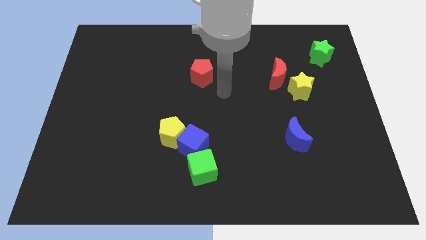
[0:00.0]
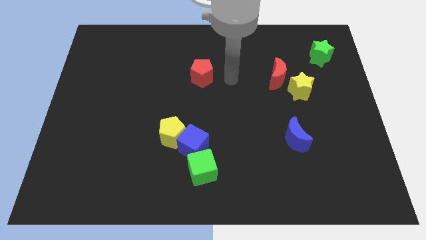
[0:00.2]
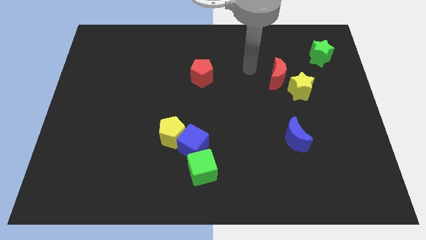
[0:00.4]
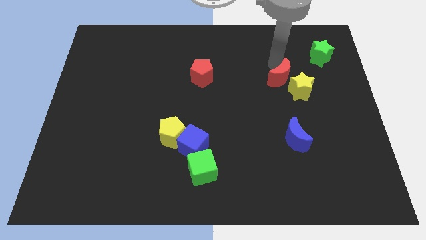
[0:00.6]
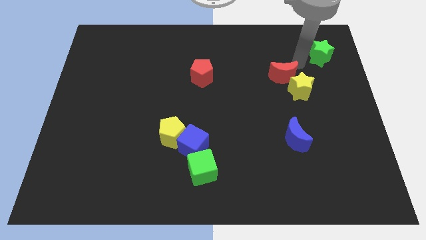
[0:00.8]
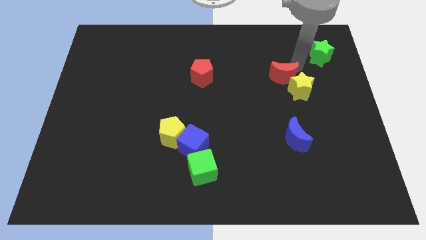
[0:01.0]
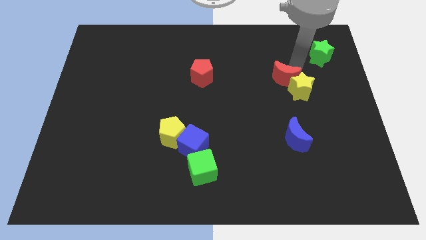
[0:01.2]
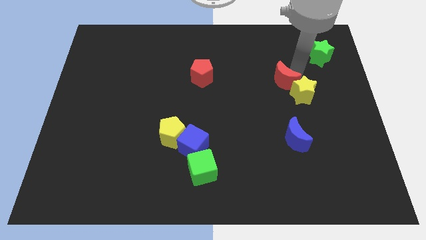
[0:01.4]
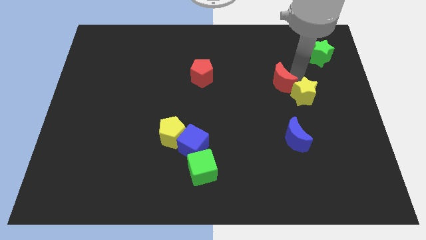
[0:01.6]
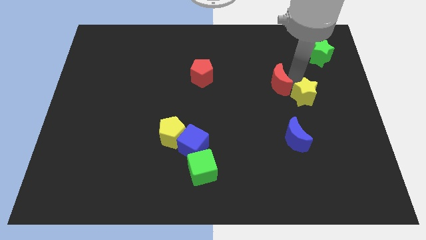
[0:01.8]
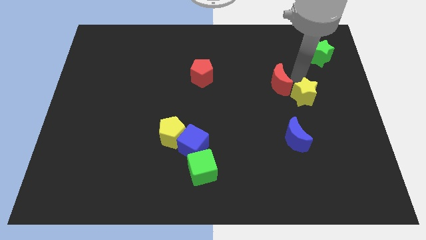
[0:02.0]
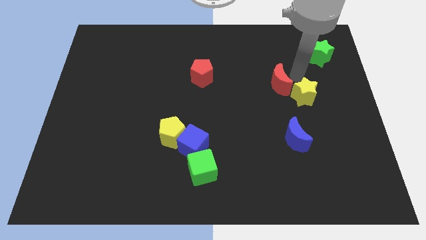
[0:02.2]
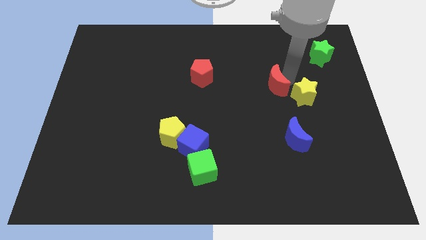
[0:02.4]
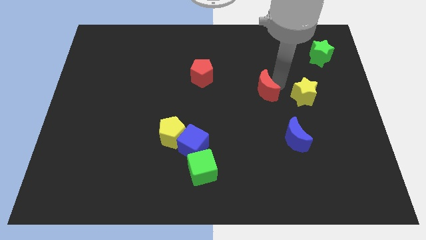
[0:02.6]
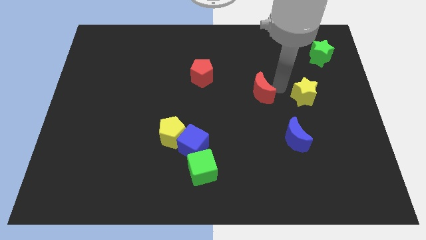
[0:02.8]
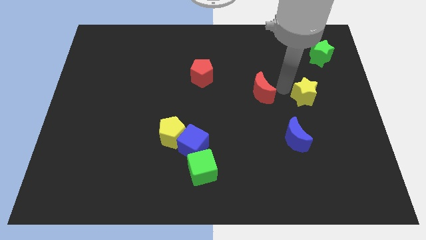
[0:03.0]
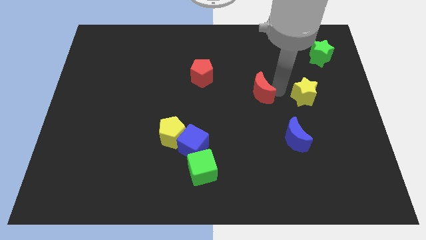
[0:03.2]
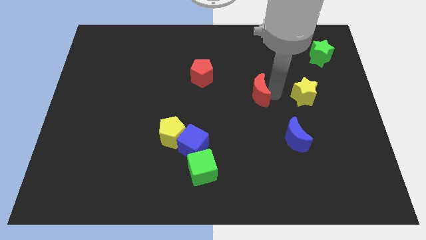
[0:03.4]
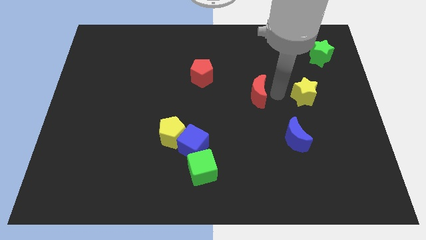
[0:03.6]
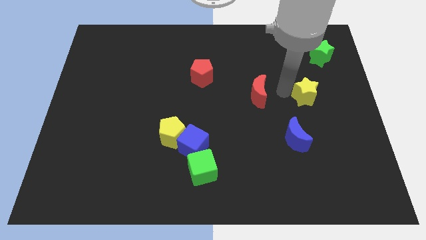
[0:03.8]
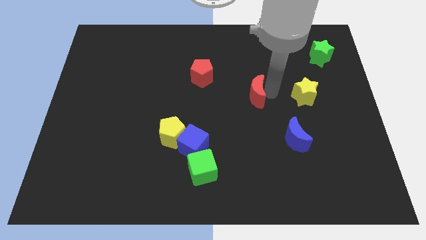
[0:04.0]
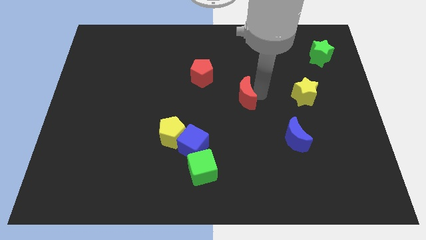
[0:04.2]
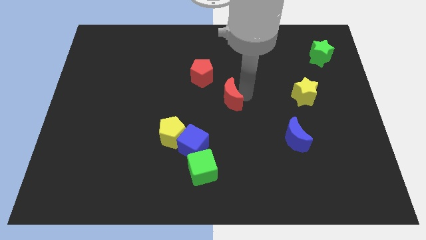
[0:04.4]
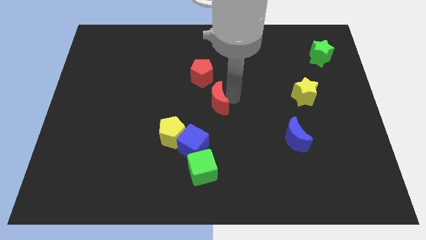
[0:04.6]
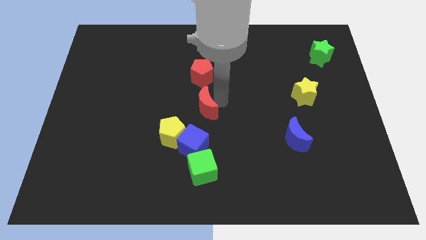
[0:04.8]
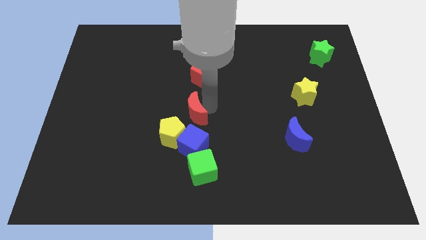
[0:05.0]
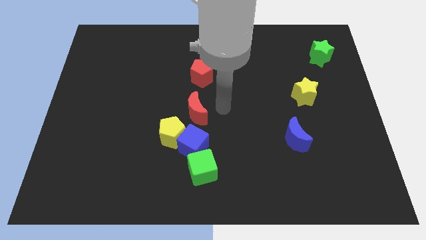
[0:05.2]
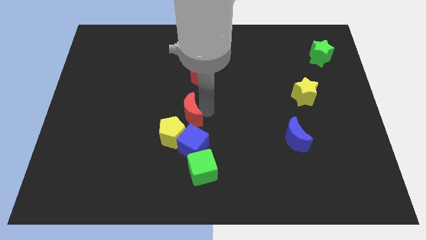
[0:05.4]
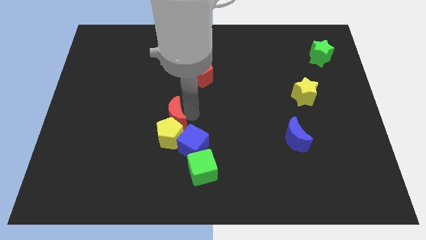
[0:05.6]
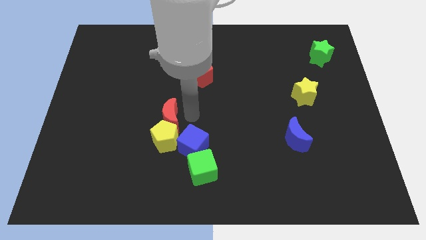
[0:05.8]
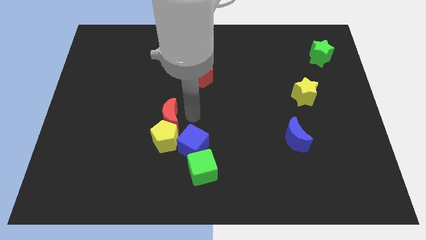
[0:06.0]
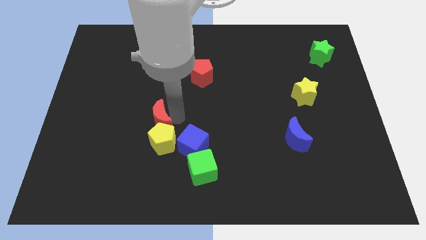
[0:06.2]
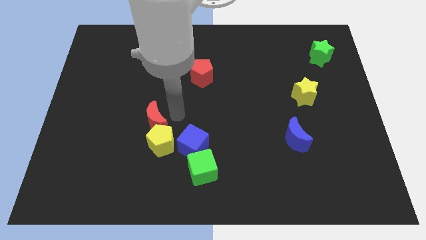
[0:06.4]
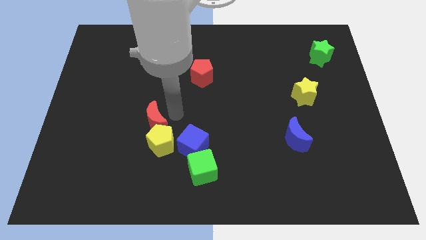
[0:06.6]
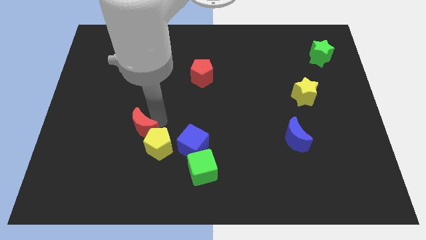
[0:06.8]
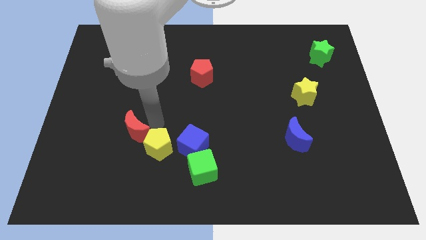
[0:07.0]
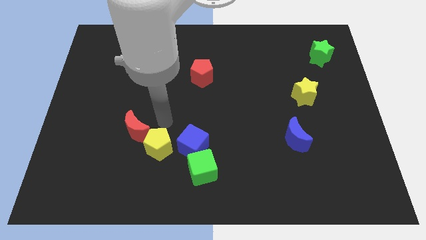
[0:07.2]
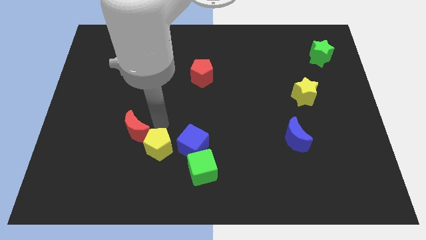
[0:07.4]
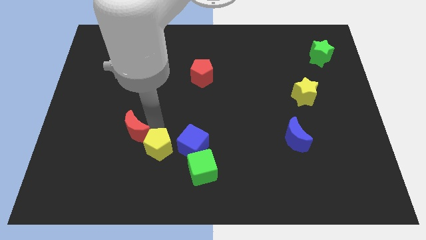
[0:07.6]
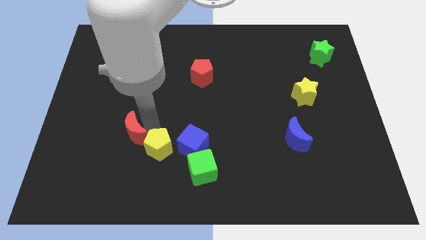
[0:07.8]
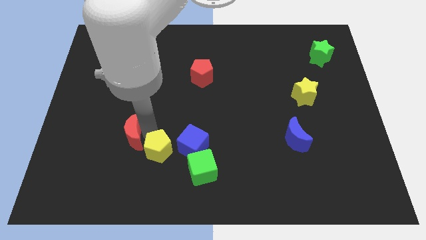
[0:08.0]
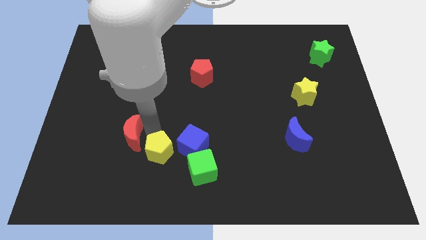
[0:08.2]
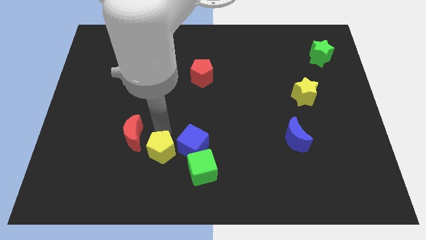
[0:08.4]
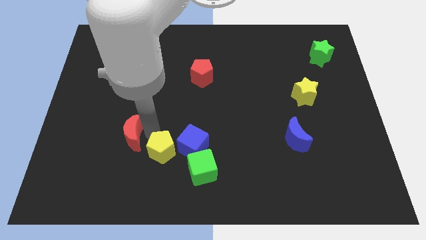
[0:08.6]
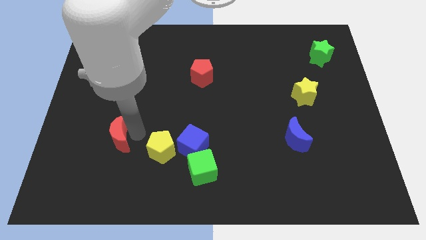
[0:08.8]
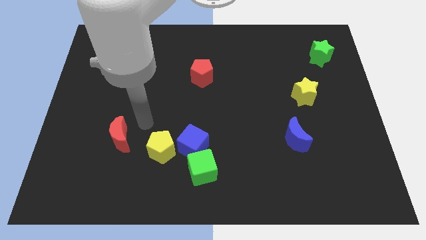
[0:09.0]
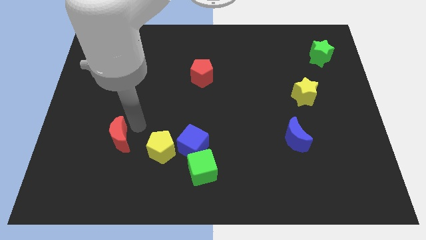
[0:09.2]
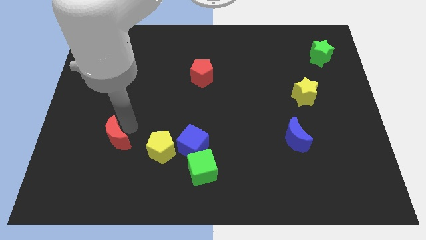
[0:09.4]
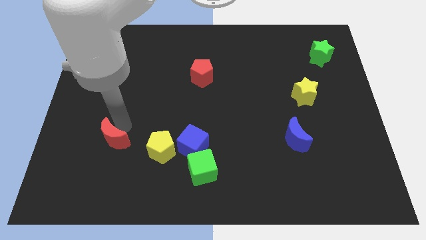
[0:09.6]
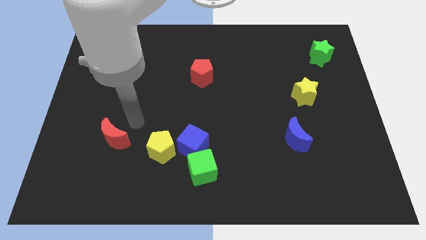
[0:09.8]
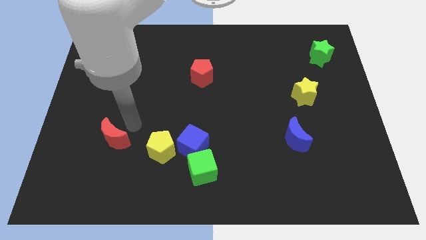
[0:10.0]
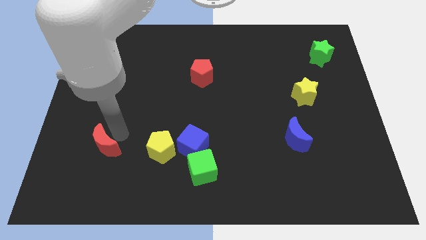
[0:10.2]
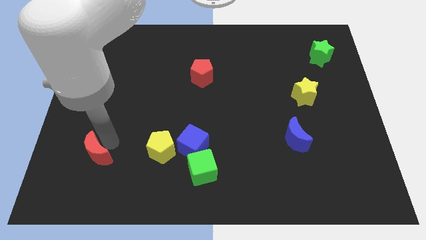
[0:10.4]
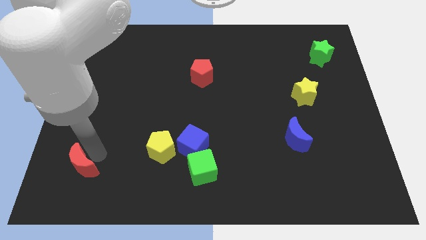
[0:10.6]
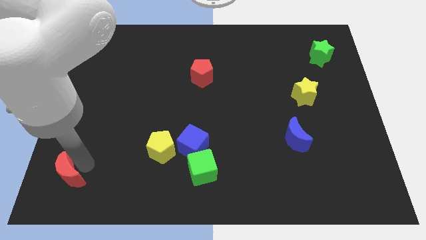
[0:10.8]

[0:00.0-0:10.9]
put the red moon to the lower left corner

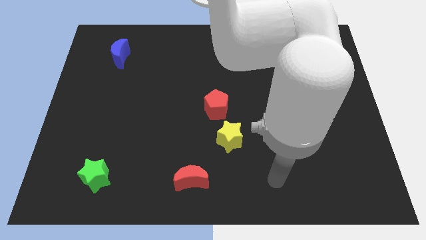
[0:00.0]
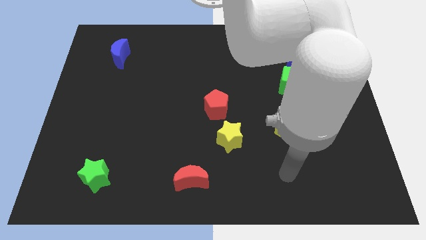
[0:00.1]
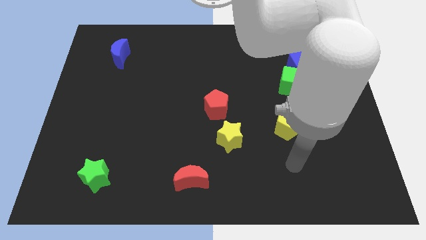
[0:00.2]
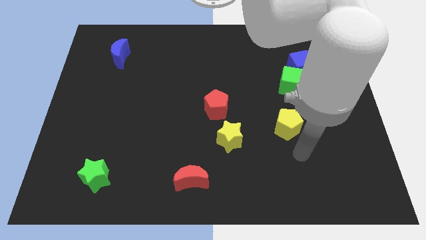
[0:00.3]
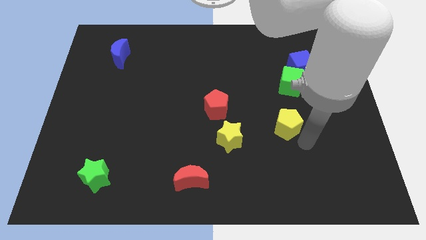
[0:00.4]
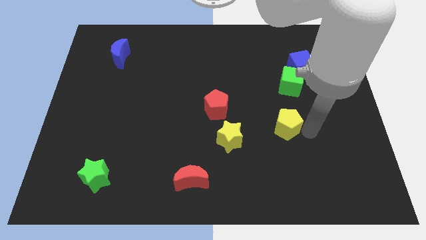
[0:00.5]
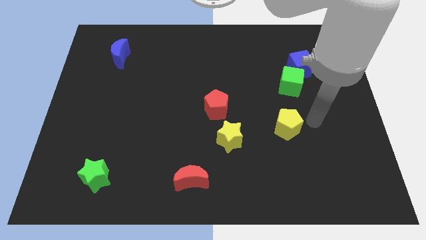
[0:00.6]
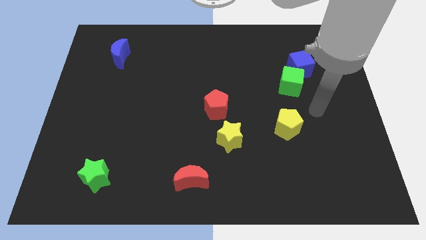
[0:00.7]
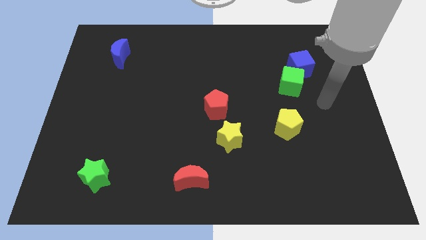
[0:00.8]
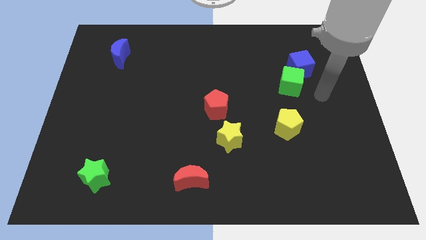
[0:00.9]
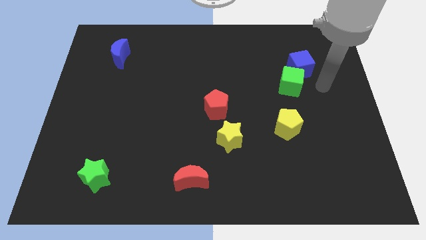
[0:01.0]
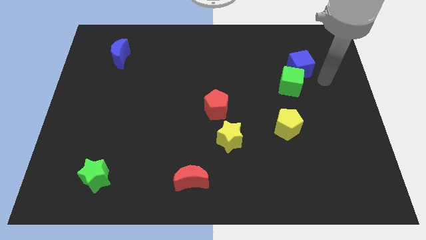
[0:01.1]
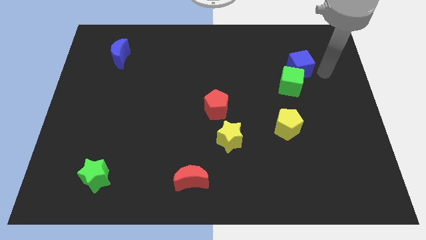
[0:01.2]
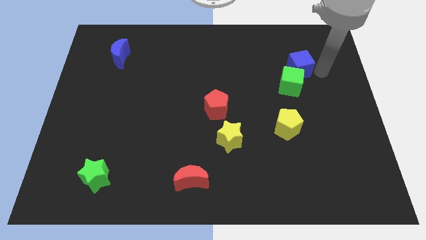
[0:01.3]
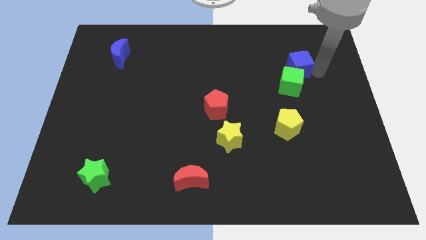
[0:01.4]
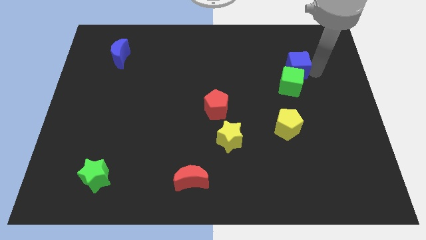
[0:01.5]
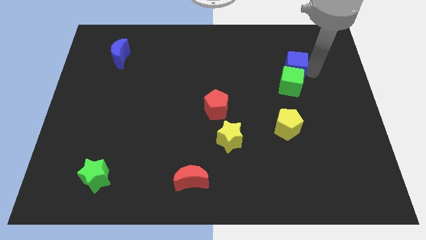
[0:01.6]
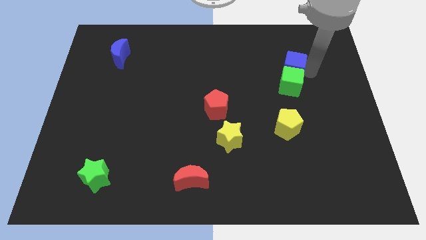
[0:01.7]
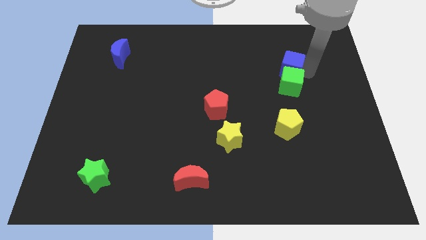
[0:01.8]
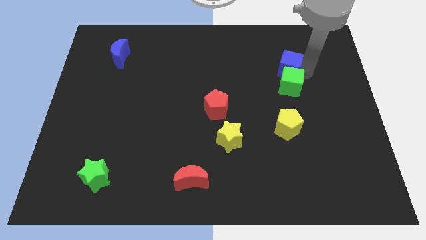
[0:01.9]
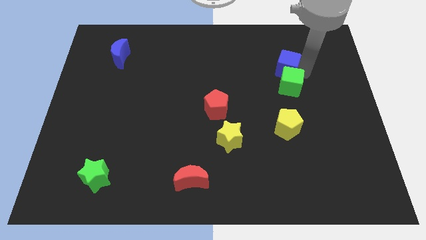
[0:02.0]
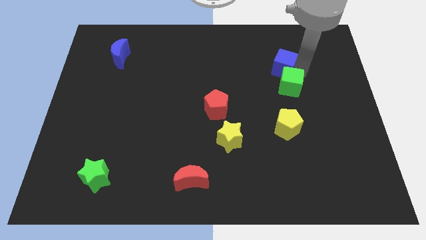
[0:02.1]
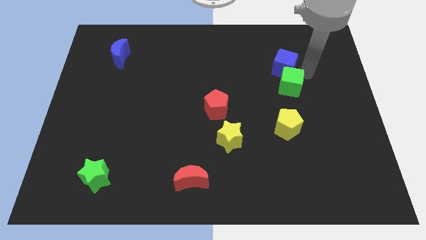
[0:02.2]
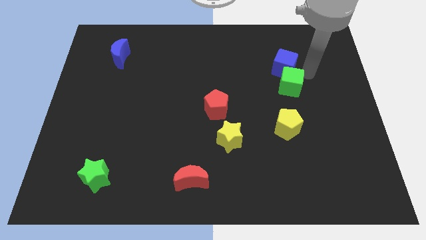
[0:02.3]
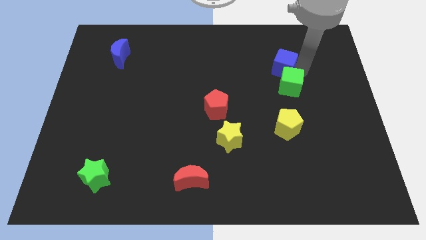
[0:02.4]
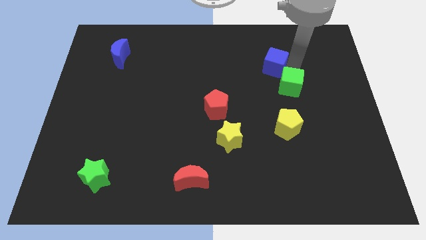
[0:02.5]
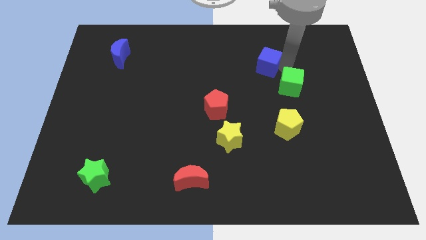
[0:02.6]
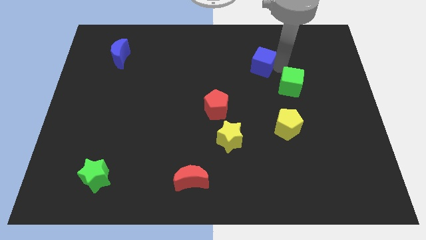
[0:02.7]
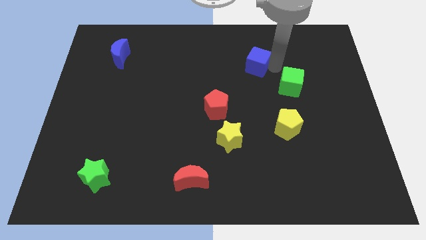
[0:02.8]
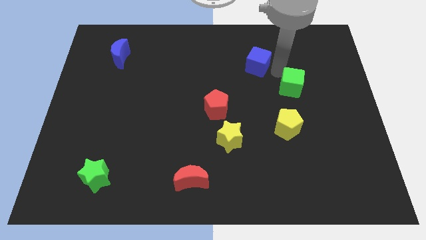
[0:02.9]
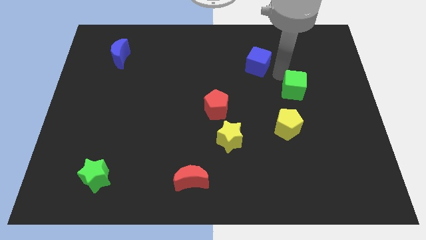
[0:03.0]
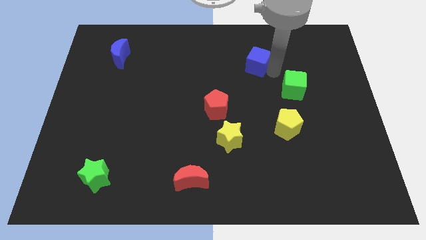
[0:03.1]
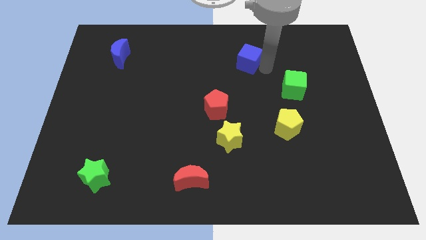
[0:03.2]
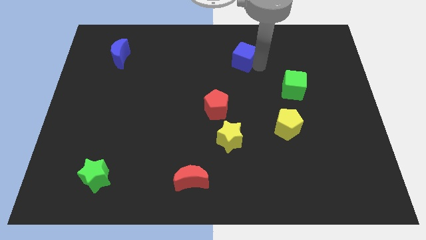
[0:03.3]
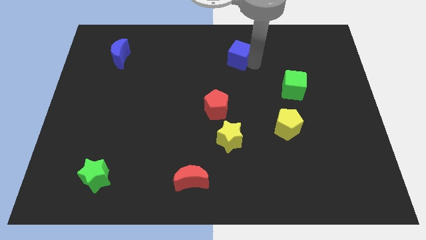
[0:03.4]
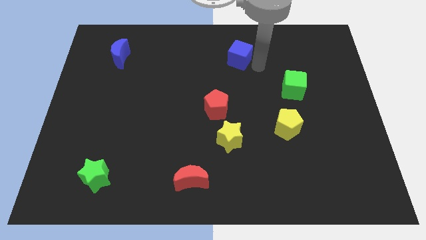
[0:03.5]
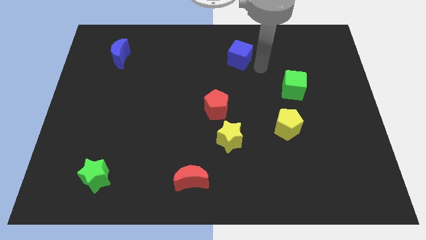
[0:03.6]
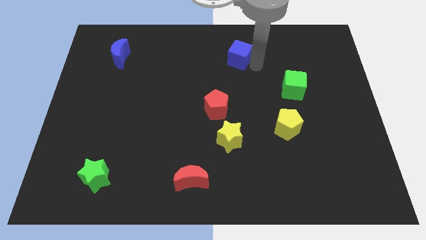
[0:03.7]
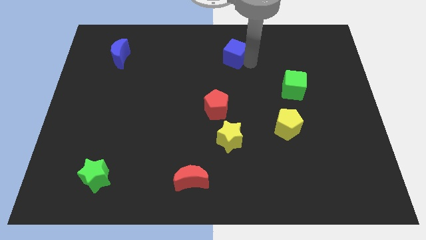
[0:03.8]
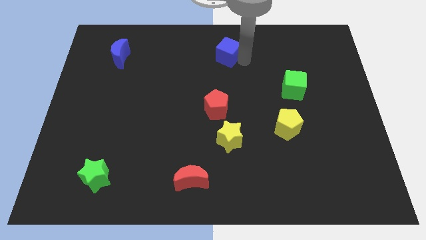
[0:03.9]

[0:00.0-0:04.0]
push the blue cube to the top side
